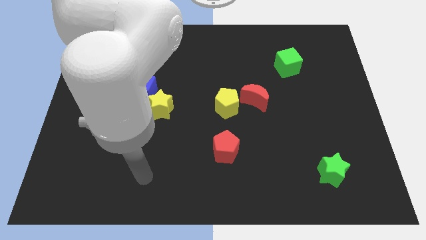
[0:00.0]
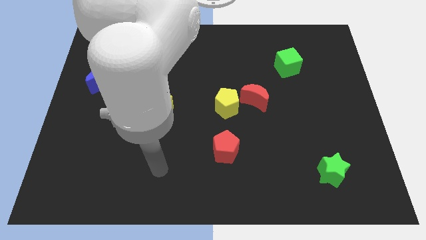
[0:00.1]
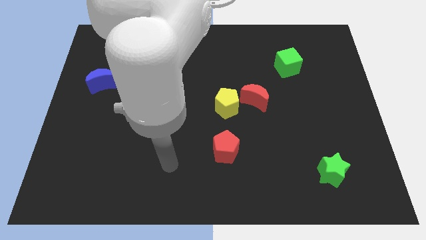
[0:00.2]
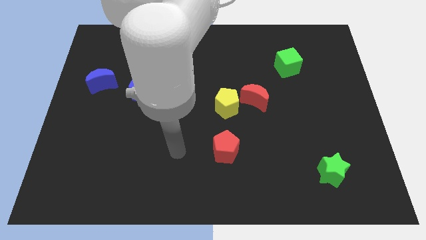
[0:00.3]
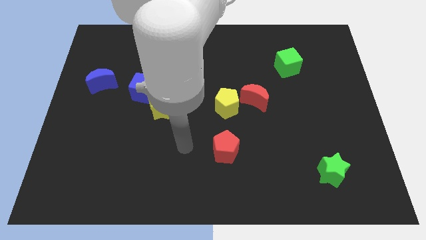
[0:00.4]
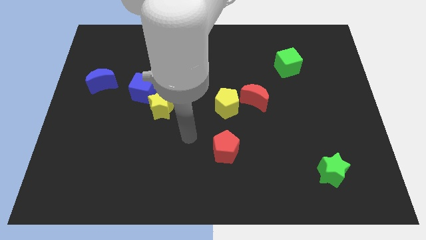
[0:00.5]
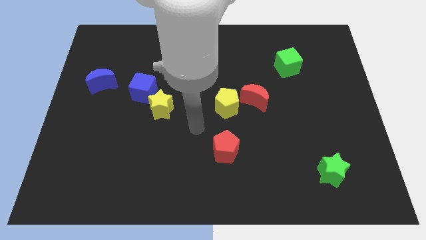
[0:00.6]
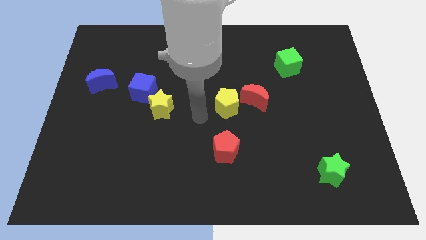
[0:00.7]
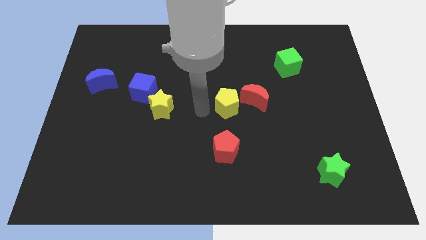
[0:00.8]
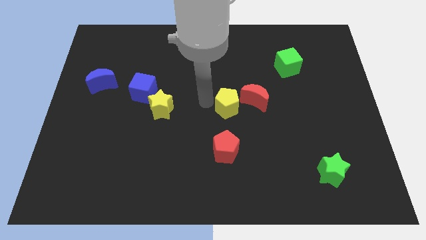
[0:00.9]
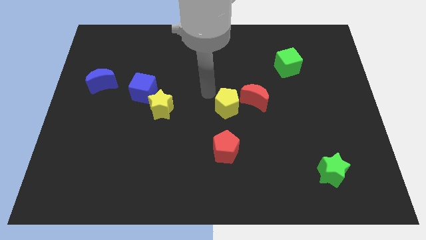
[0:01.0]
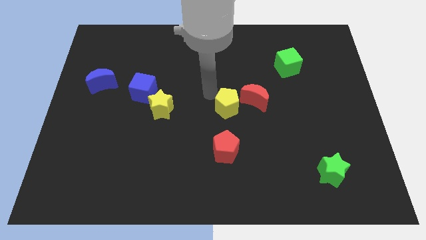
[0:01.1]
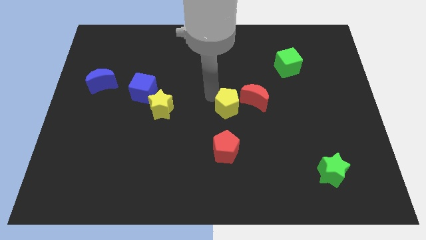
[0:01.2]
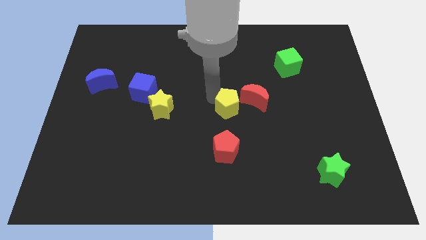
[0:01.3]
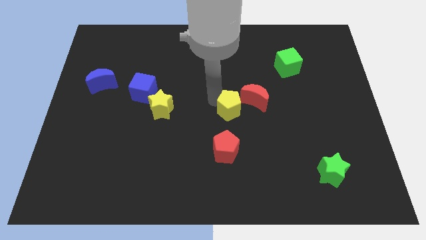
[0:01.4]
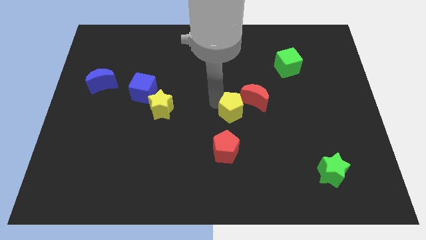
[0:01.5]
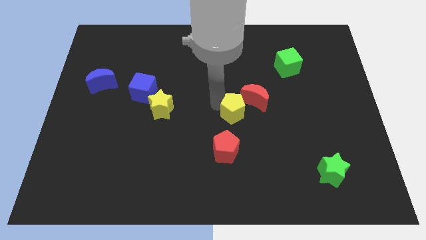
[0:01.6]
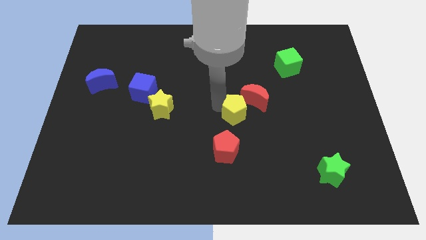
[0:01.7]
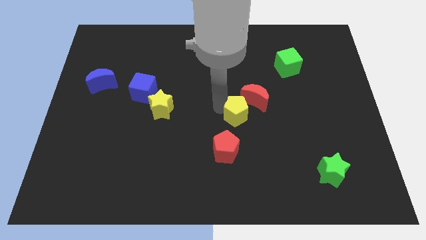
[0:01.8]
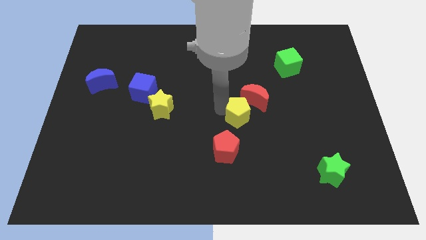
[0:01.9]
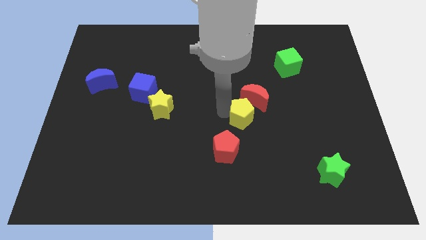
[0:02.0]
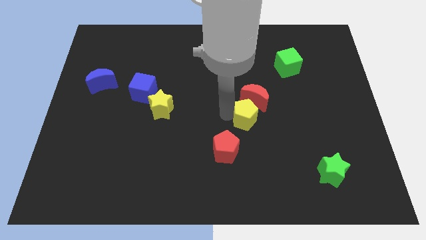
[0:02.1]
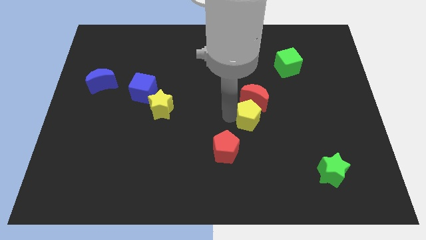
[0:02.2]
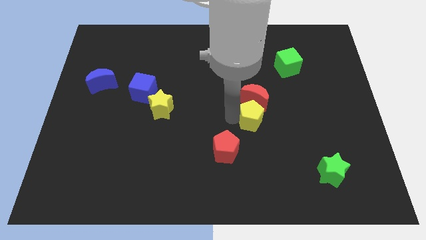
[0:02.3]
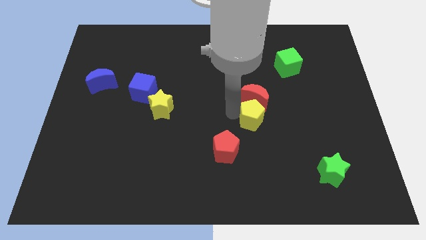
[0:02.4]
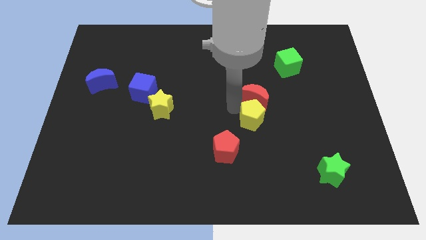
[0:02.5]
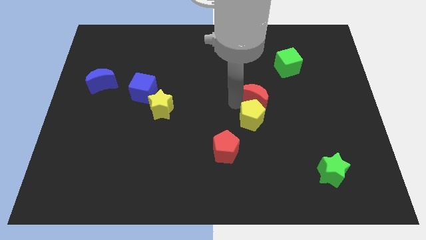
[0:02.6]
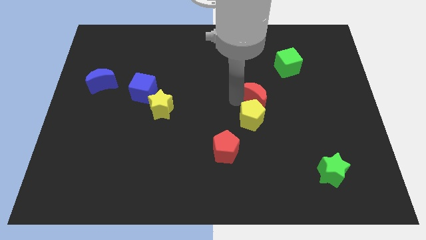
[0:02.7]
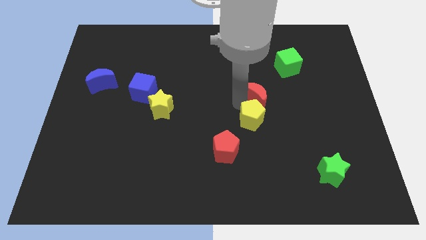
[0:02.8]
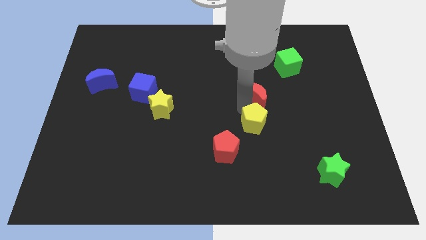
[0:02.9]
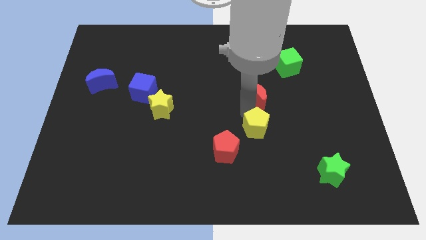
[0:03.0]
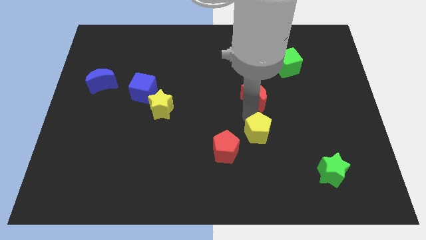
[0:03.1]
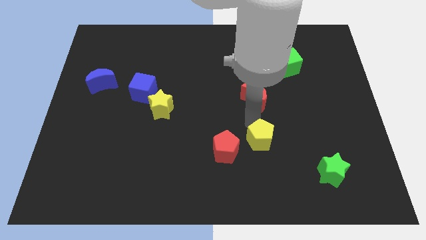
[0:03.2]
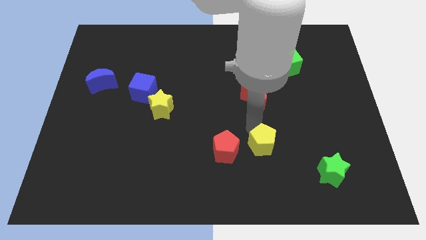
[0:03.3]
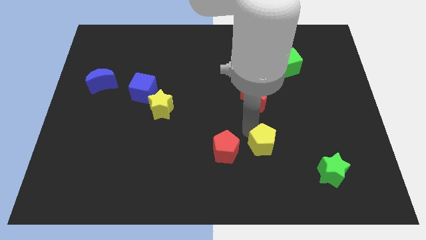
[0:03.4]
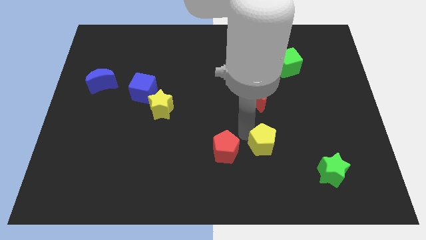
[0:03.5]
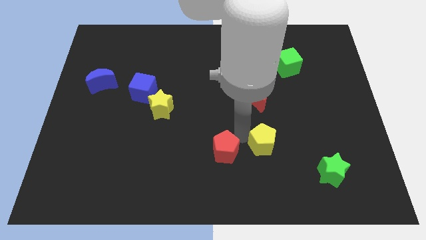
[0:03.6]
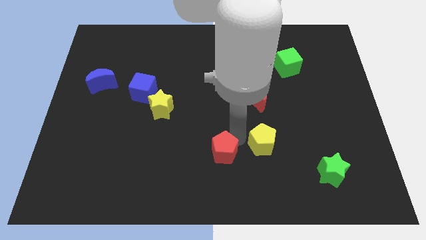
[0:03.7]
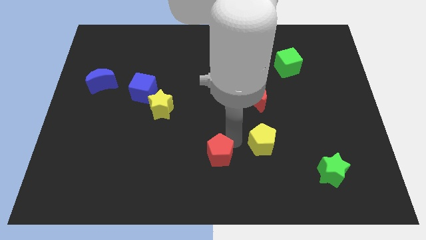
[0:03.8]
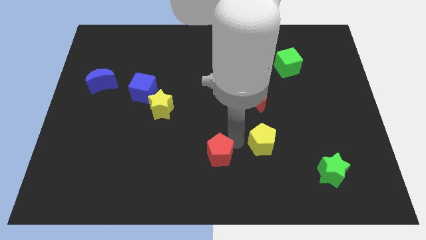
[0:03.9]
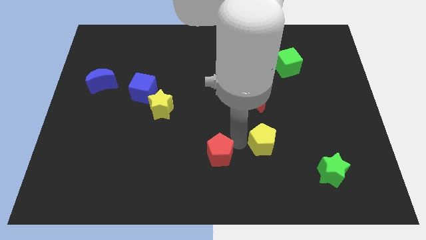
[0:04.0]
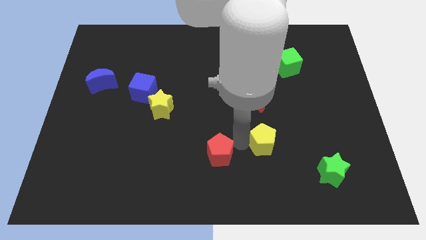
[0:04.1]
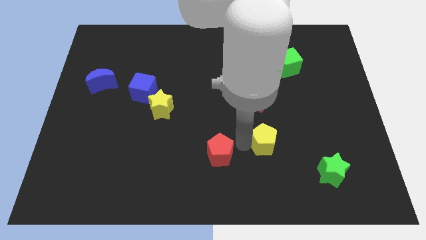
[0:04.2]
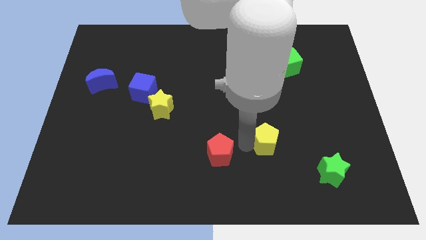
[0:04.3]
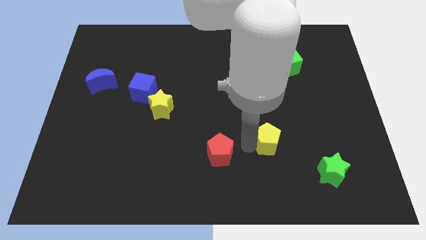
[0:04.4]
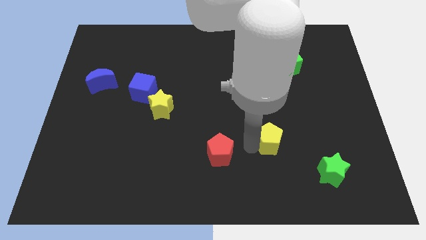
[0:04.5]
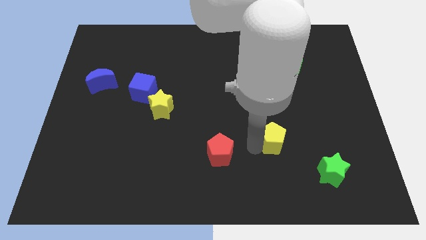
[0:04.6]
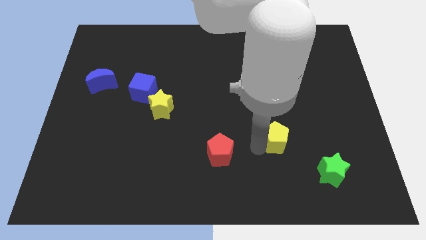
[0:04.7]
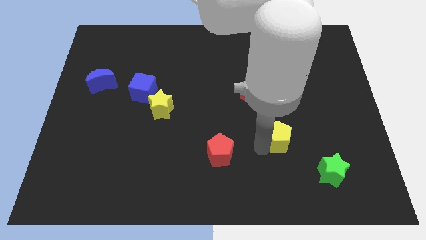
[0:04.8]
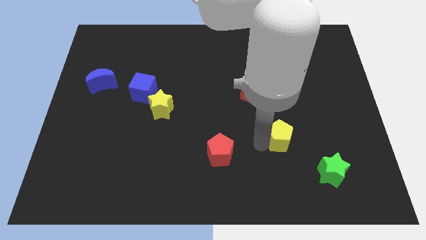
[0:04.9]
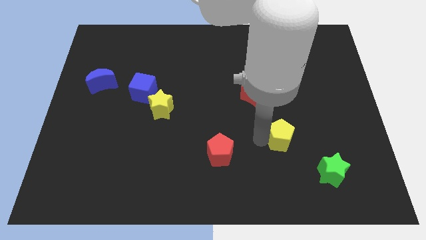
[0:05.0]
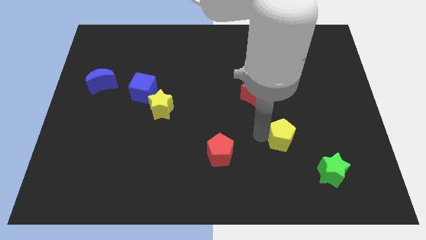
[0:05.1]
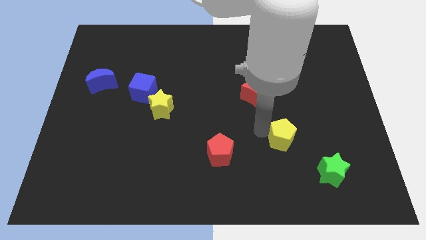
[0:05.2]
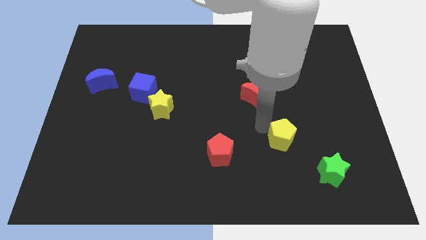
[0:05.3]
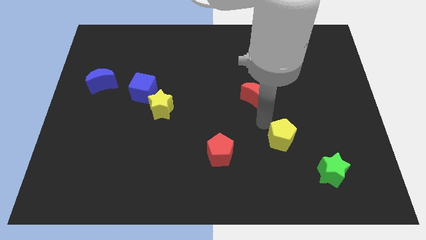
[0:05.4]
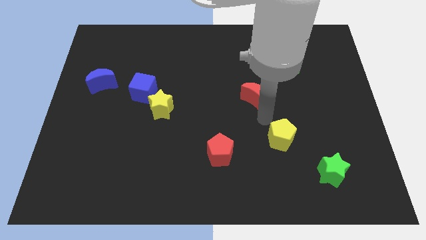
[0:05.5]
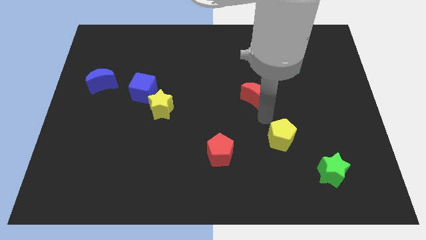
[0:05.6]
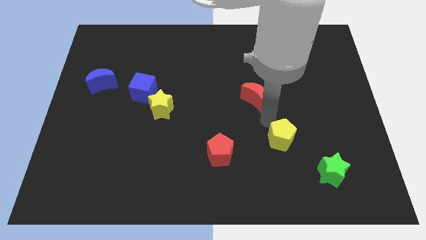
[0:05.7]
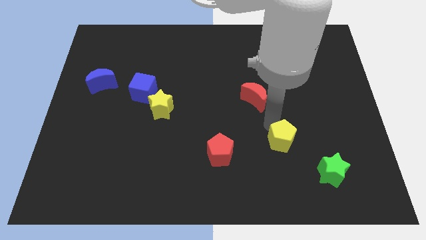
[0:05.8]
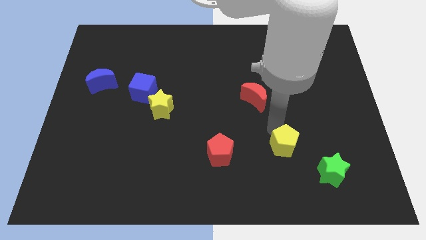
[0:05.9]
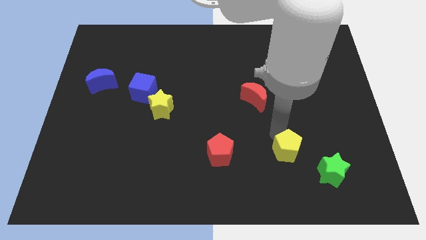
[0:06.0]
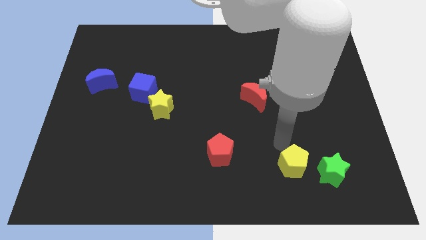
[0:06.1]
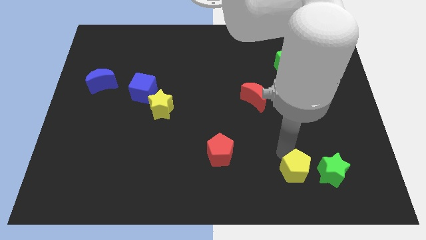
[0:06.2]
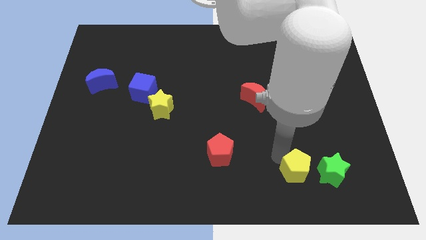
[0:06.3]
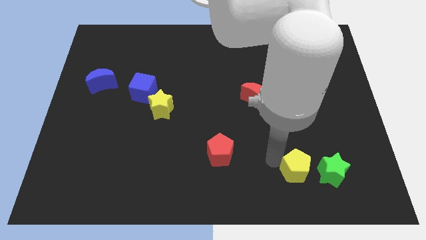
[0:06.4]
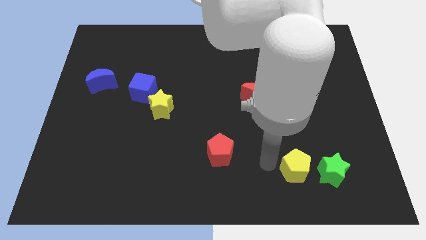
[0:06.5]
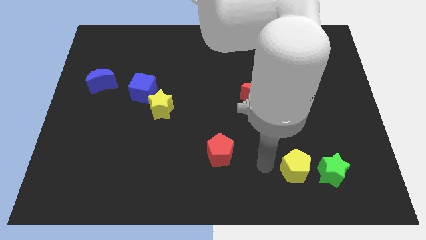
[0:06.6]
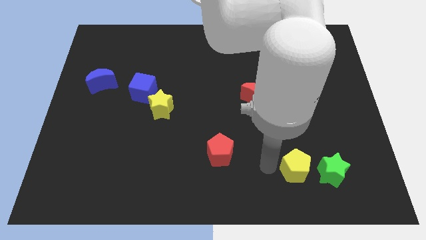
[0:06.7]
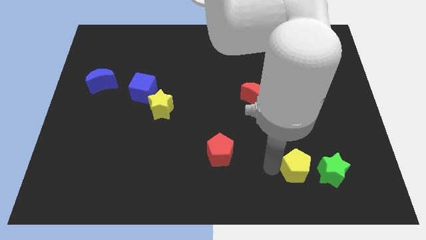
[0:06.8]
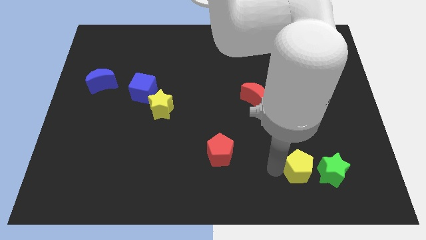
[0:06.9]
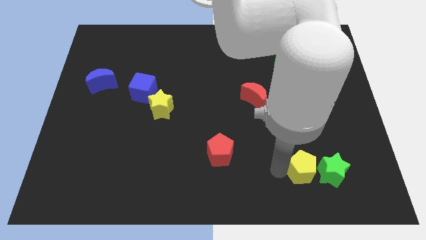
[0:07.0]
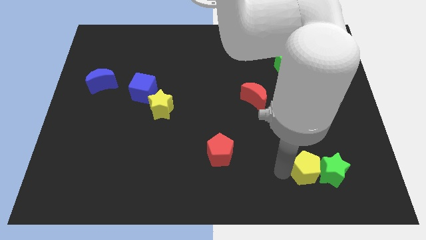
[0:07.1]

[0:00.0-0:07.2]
move the yellow pentagon close to the green star

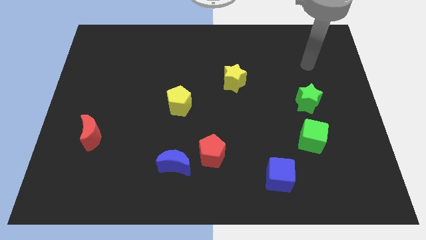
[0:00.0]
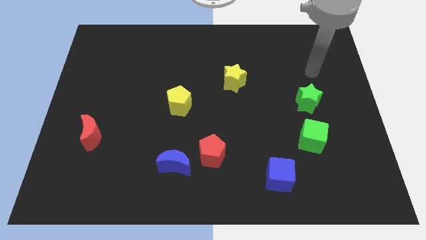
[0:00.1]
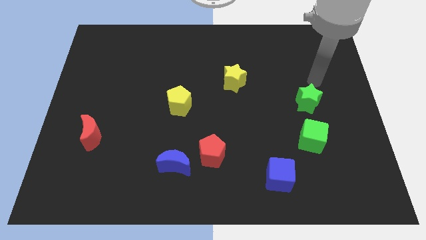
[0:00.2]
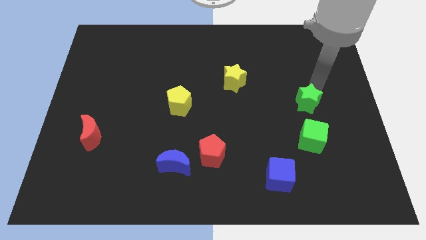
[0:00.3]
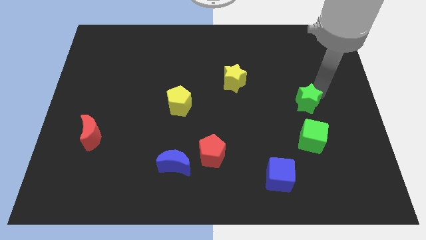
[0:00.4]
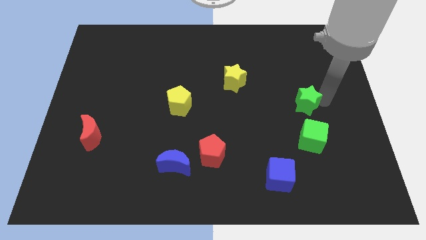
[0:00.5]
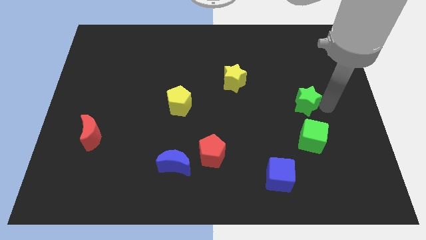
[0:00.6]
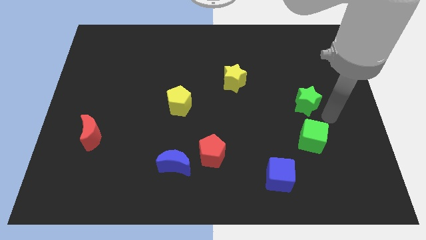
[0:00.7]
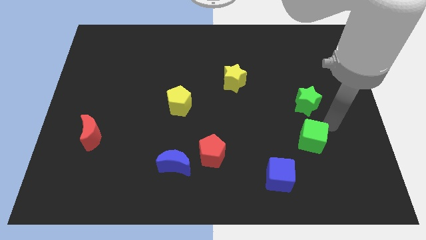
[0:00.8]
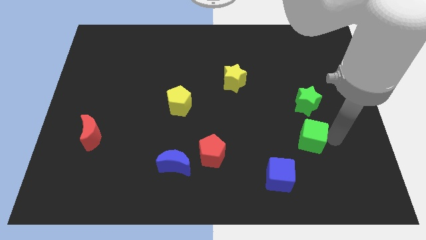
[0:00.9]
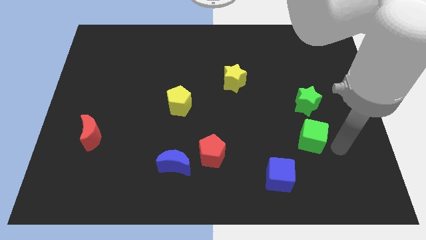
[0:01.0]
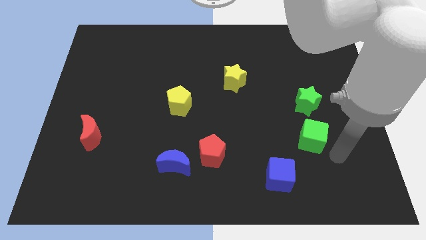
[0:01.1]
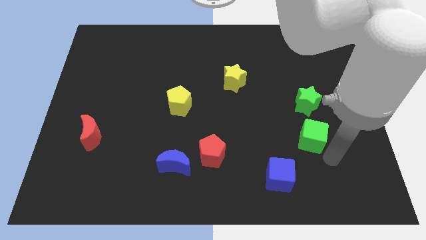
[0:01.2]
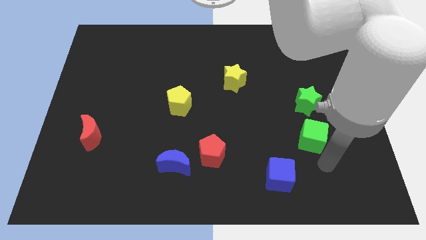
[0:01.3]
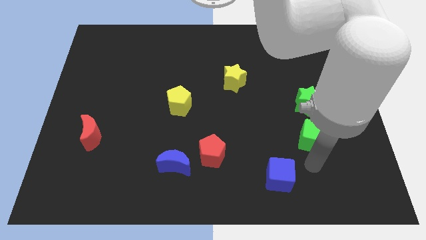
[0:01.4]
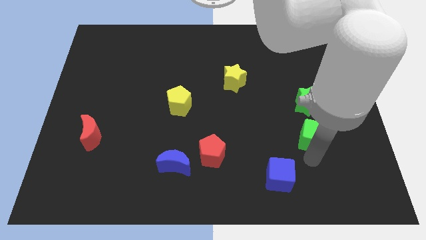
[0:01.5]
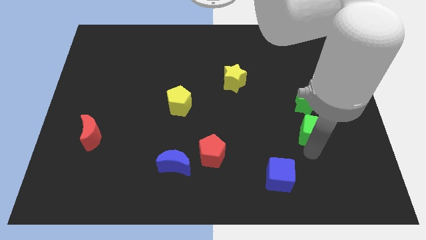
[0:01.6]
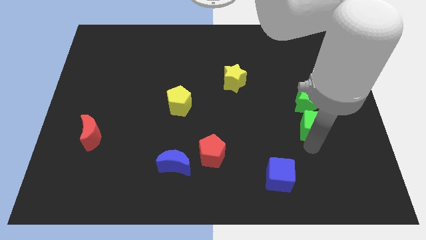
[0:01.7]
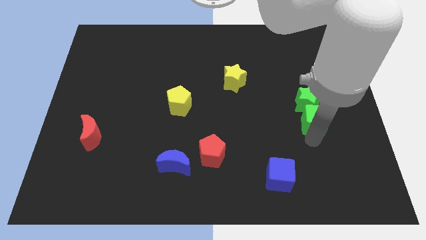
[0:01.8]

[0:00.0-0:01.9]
put the green cube to the green star
